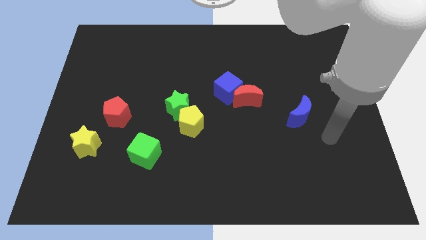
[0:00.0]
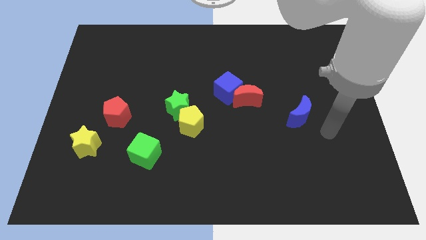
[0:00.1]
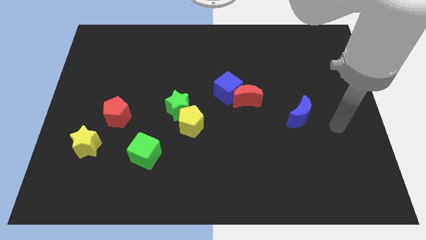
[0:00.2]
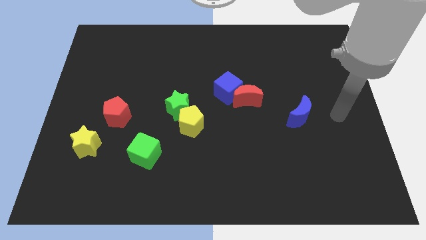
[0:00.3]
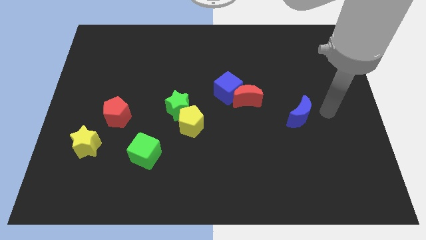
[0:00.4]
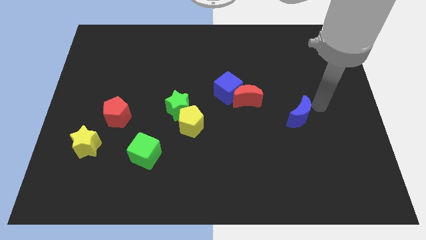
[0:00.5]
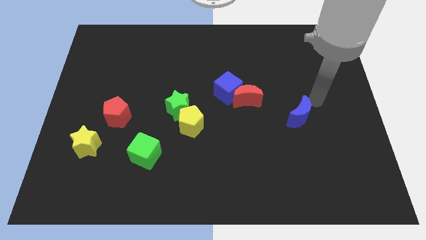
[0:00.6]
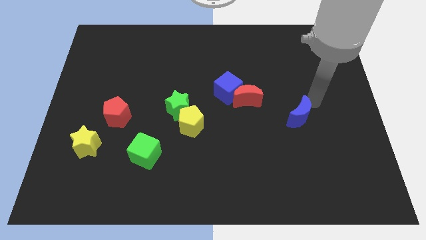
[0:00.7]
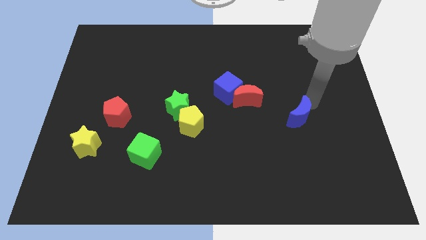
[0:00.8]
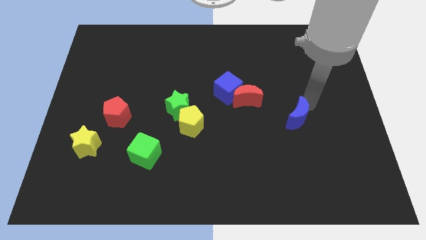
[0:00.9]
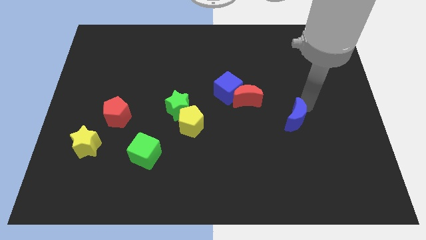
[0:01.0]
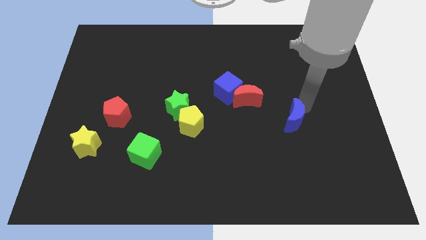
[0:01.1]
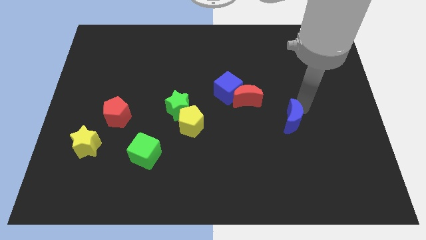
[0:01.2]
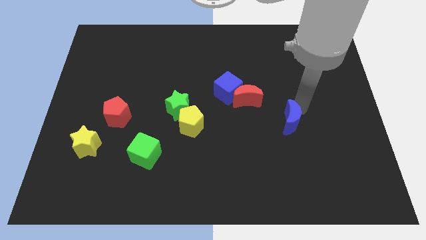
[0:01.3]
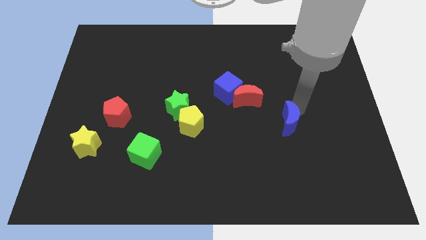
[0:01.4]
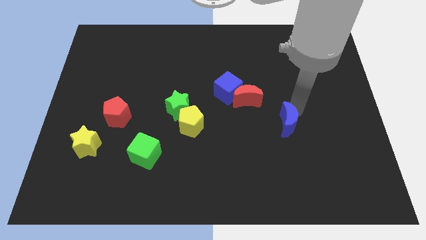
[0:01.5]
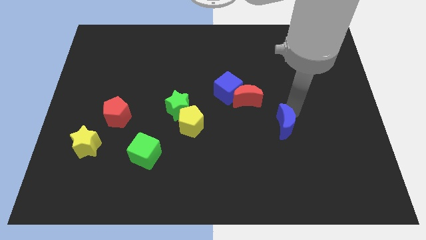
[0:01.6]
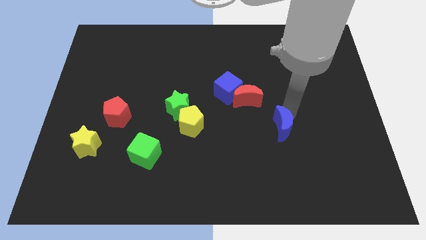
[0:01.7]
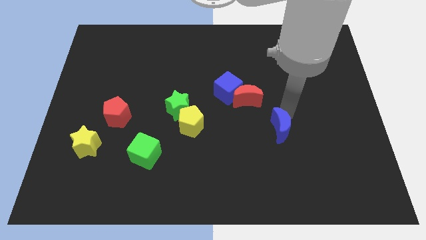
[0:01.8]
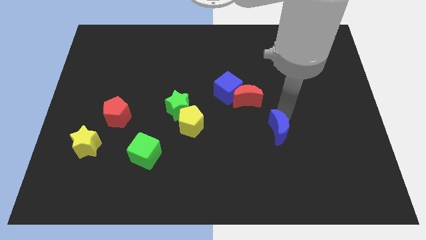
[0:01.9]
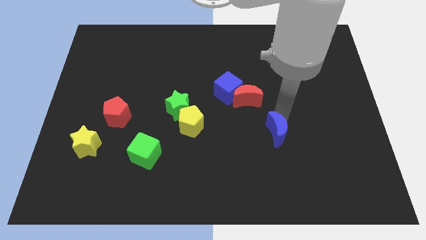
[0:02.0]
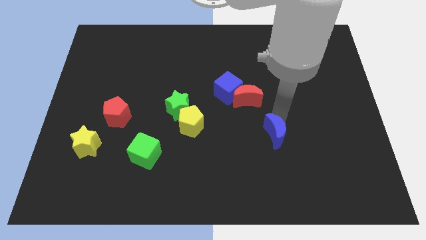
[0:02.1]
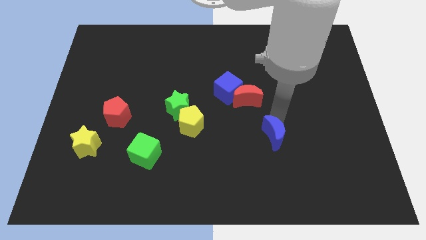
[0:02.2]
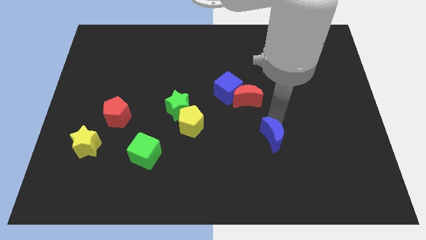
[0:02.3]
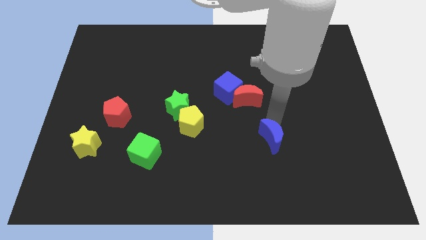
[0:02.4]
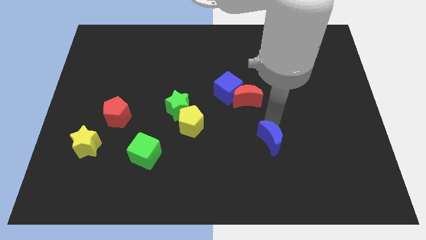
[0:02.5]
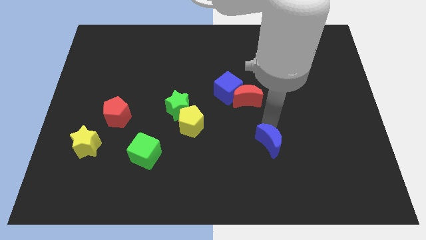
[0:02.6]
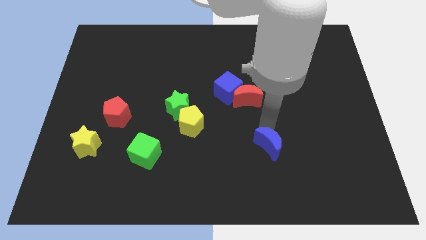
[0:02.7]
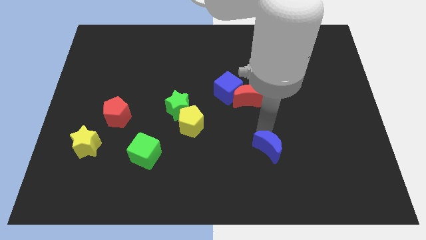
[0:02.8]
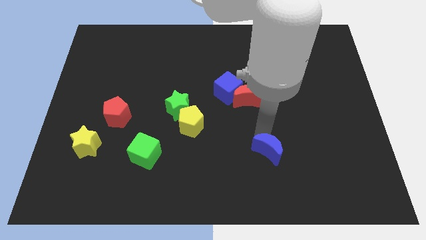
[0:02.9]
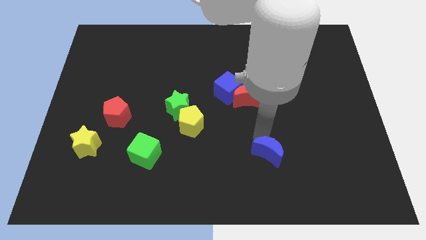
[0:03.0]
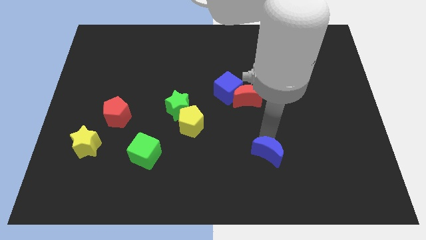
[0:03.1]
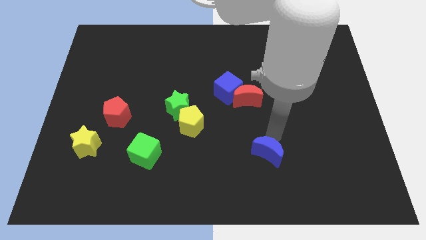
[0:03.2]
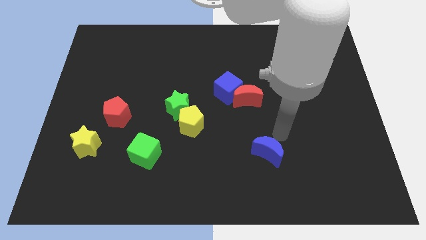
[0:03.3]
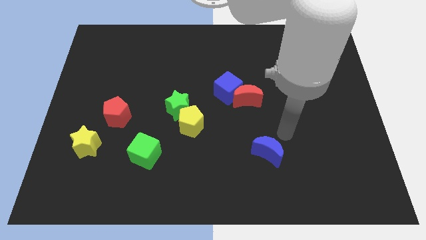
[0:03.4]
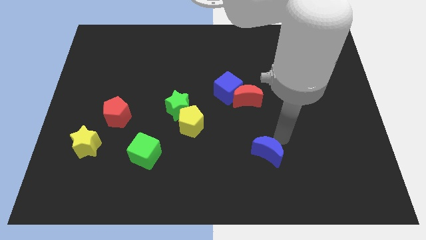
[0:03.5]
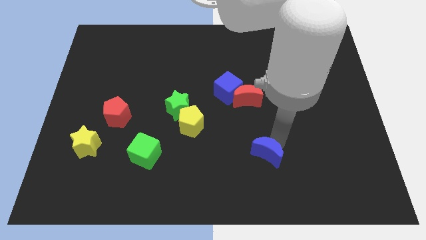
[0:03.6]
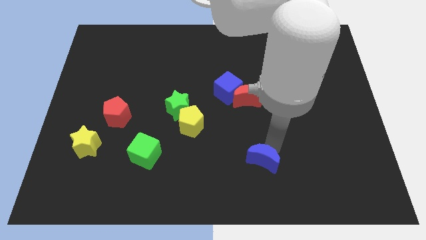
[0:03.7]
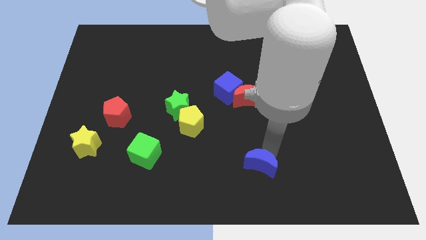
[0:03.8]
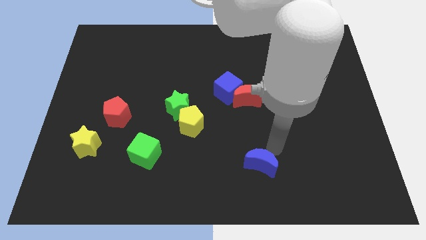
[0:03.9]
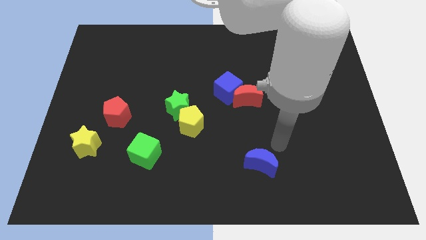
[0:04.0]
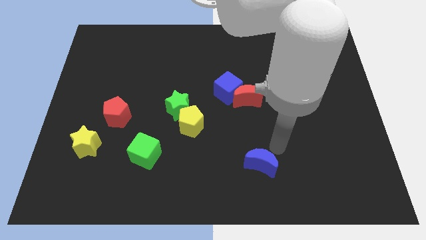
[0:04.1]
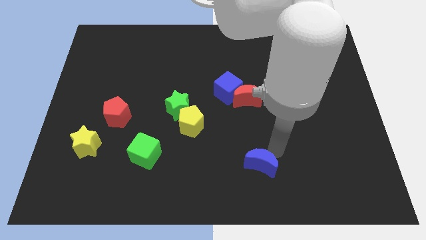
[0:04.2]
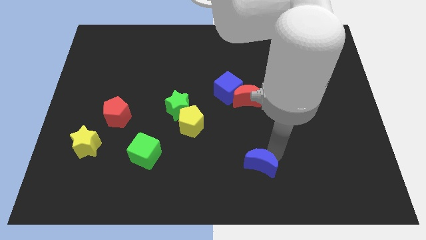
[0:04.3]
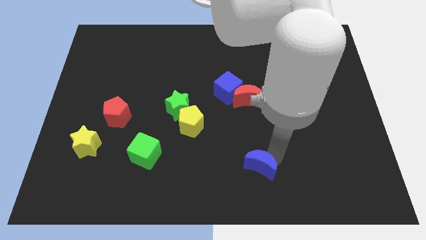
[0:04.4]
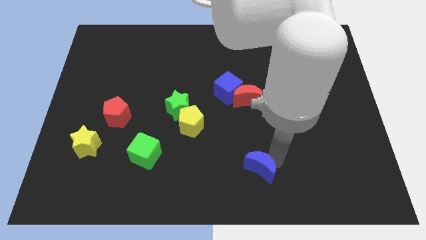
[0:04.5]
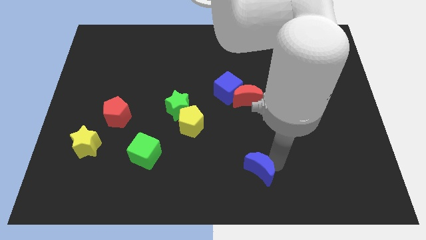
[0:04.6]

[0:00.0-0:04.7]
put the blue moon to the bottom

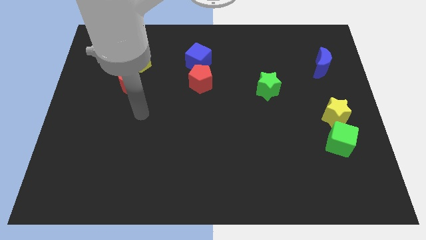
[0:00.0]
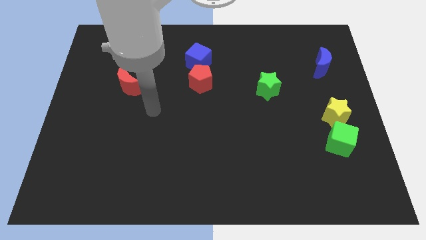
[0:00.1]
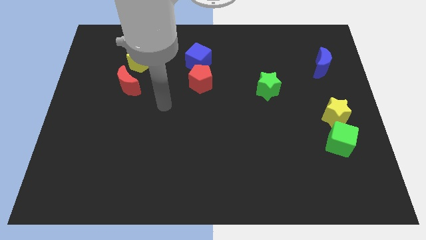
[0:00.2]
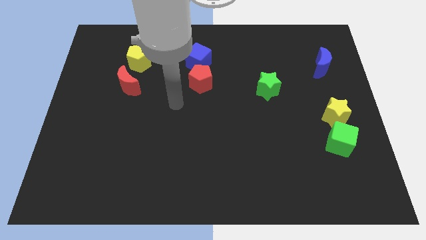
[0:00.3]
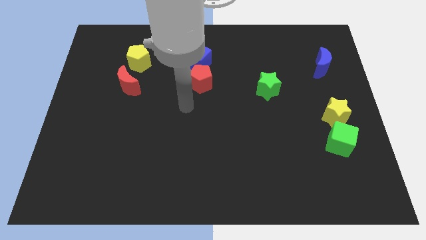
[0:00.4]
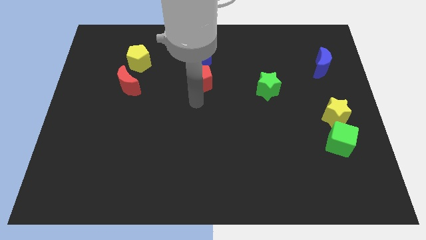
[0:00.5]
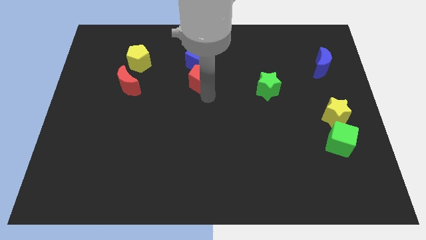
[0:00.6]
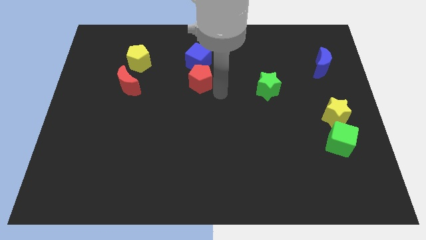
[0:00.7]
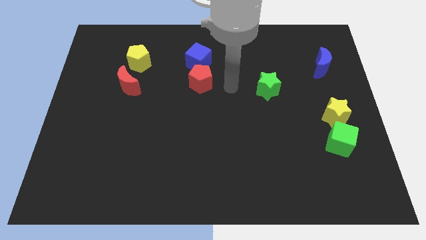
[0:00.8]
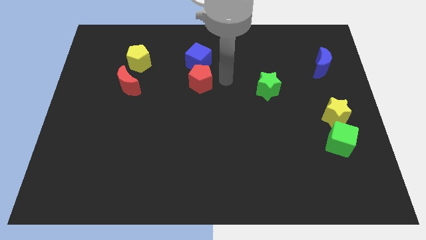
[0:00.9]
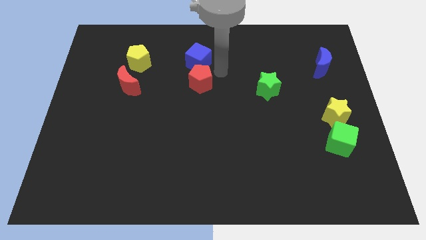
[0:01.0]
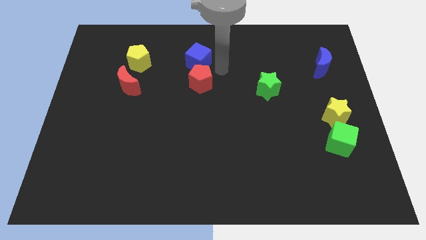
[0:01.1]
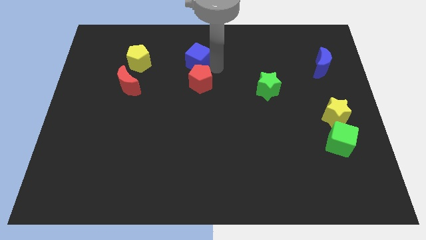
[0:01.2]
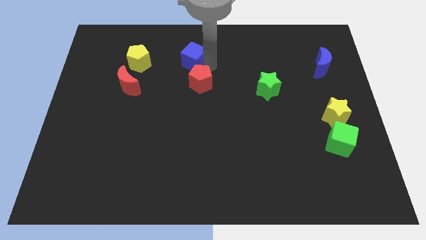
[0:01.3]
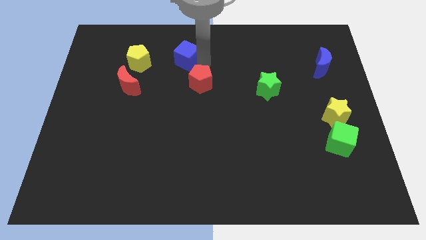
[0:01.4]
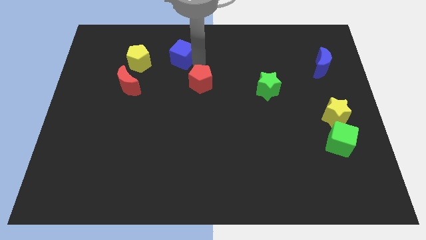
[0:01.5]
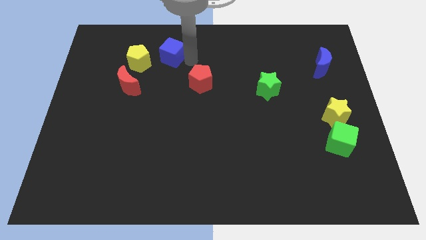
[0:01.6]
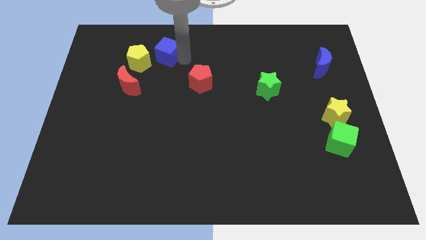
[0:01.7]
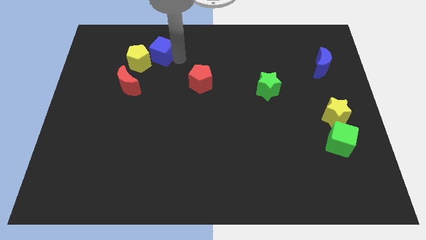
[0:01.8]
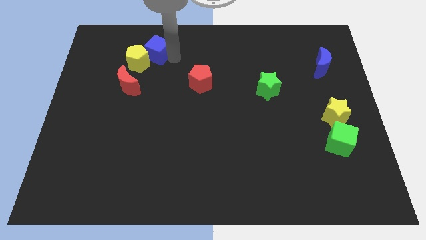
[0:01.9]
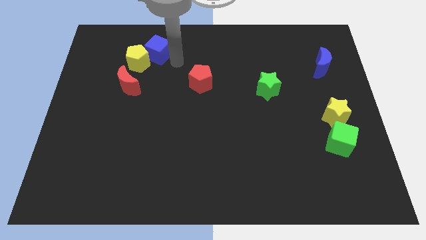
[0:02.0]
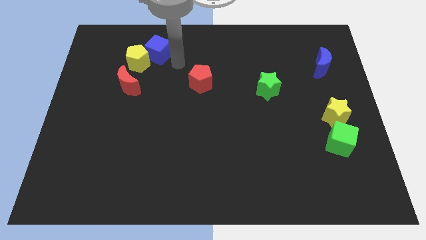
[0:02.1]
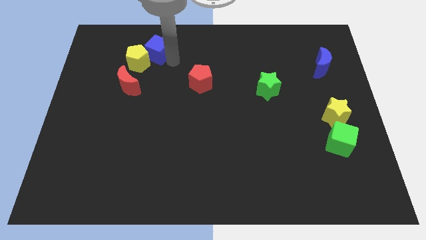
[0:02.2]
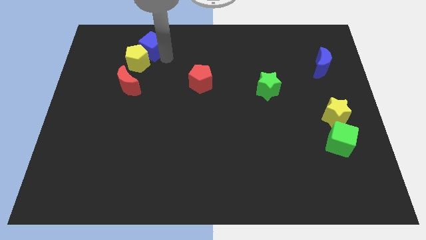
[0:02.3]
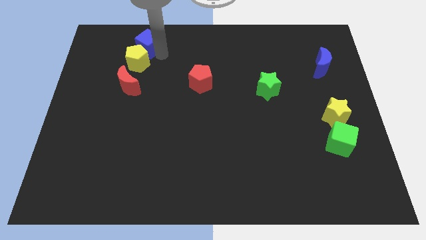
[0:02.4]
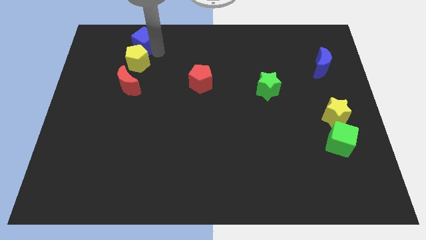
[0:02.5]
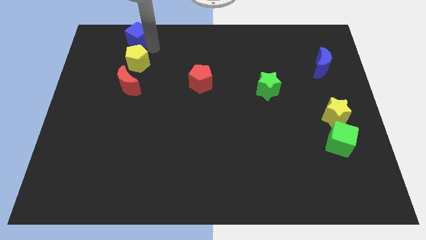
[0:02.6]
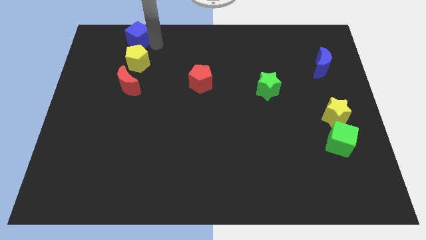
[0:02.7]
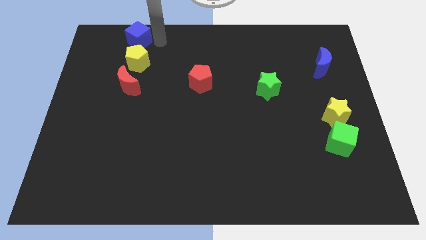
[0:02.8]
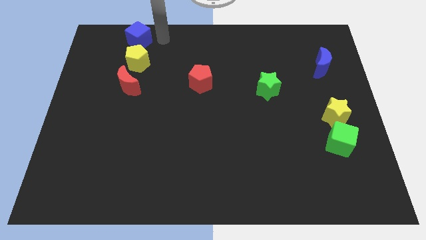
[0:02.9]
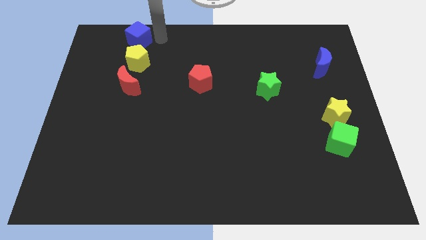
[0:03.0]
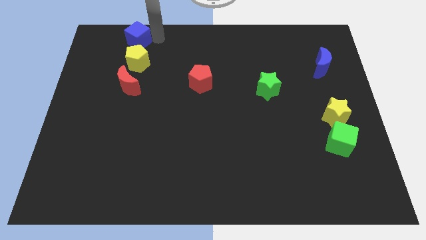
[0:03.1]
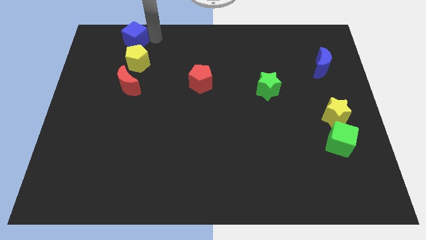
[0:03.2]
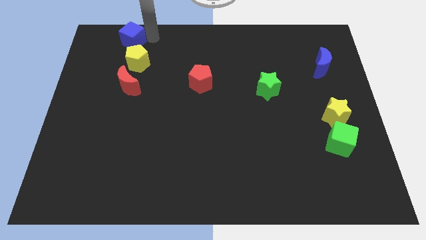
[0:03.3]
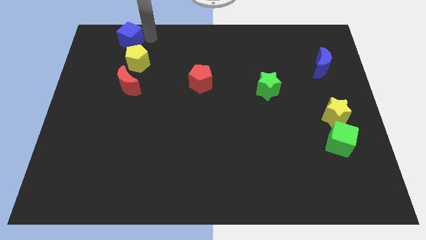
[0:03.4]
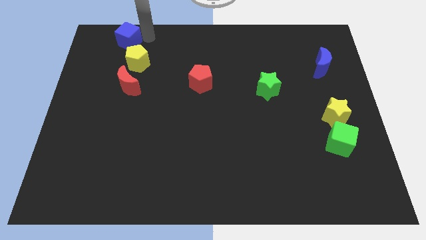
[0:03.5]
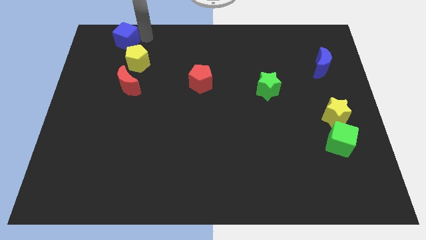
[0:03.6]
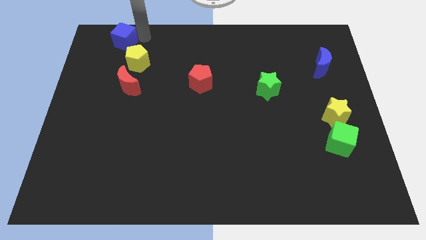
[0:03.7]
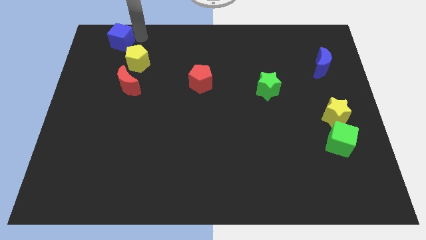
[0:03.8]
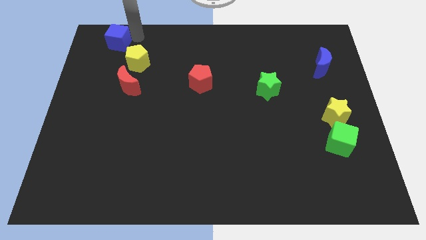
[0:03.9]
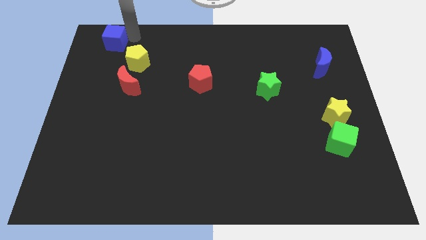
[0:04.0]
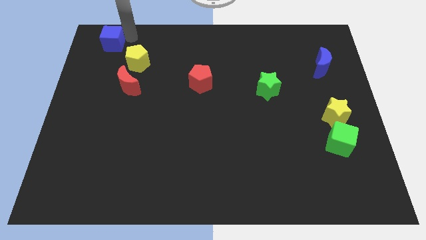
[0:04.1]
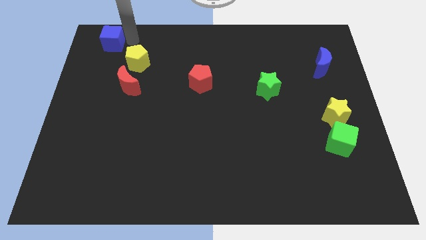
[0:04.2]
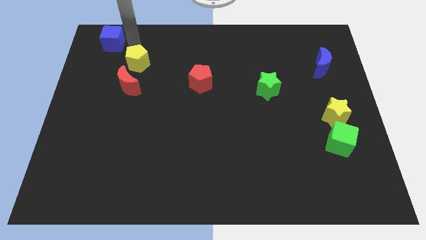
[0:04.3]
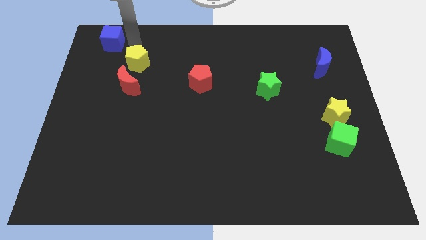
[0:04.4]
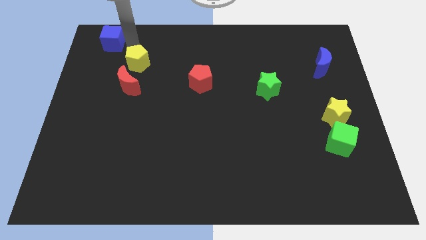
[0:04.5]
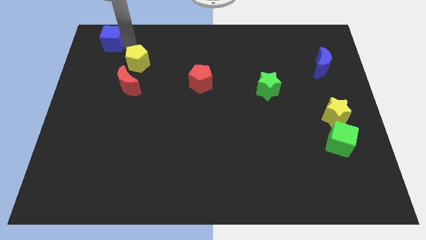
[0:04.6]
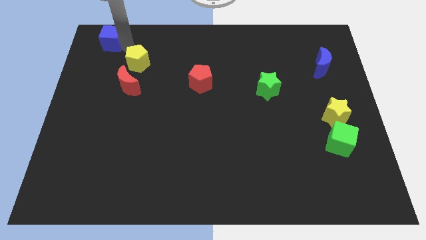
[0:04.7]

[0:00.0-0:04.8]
put the blue cube to the upper left corner
